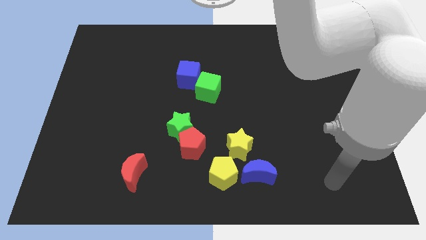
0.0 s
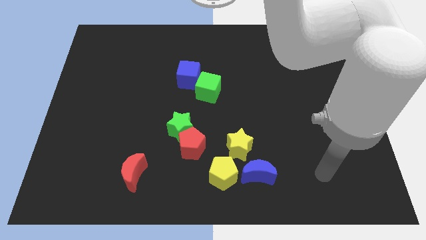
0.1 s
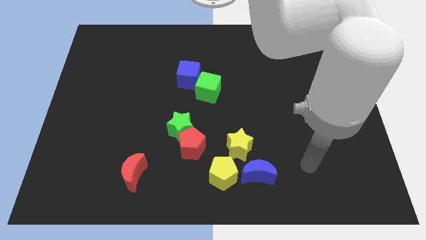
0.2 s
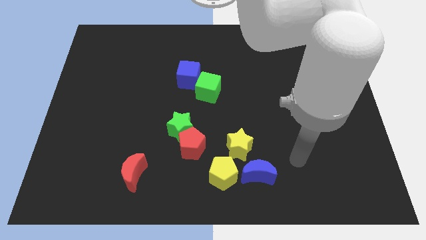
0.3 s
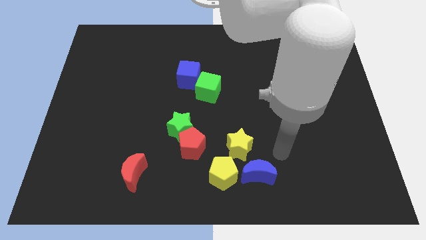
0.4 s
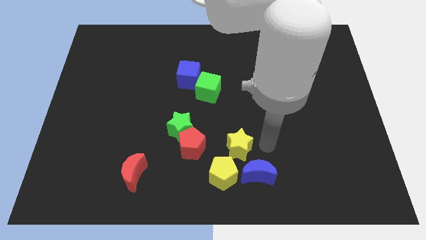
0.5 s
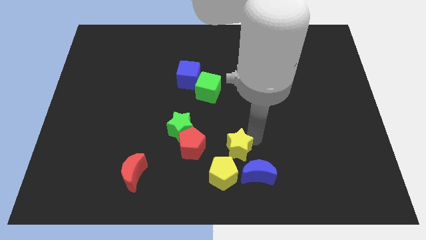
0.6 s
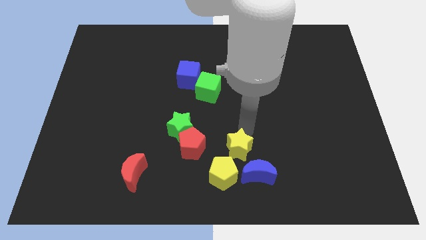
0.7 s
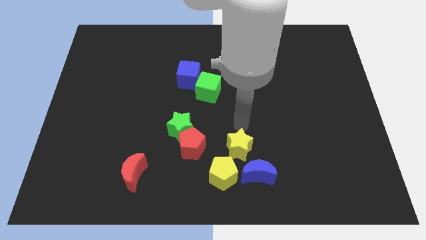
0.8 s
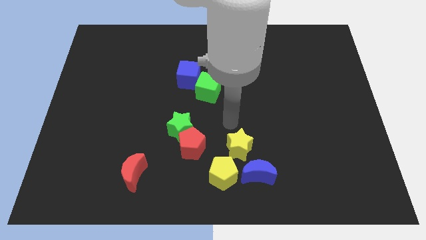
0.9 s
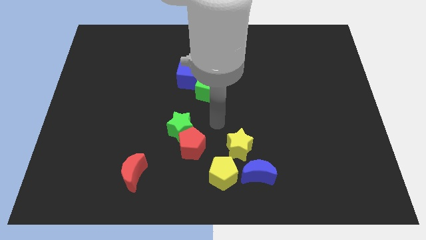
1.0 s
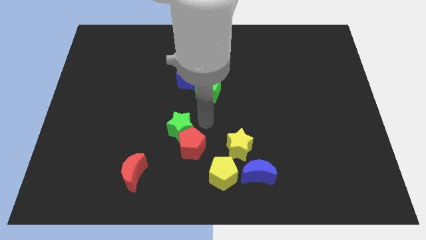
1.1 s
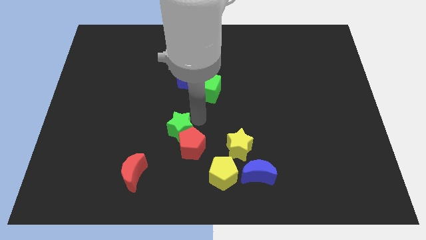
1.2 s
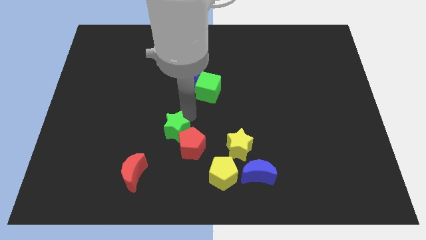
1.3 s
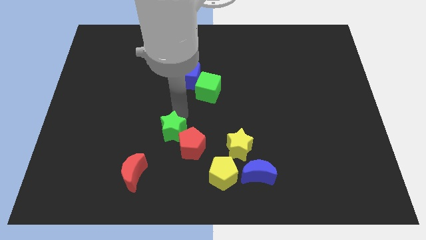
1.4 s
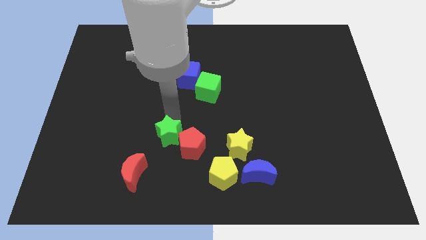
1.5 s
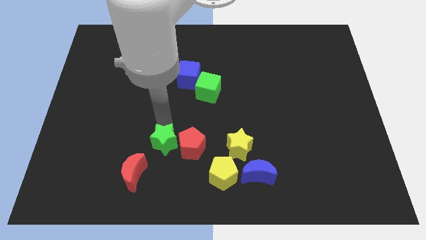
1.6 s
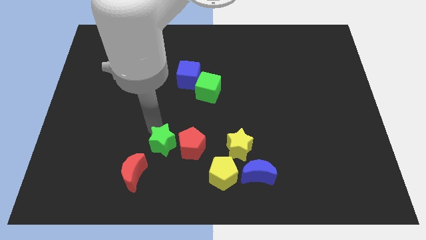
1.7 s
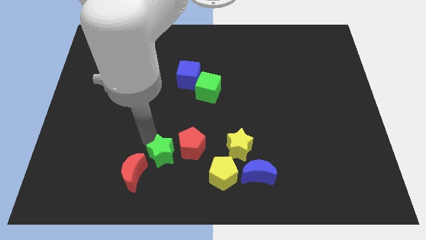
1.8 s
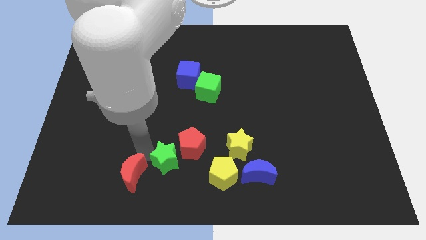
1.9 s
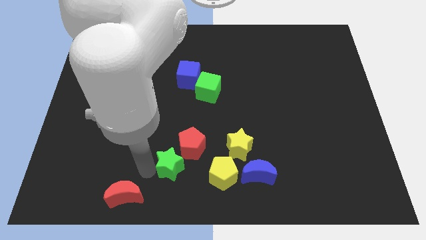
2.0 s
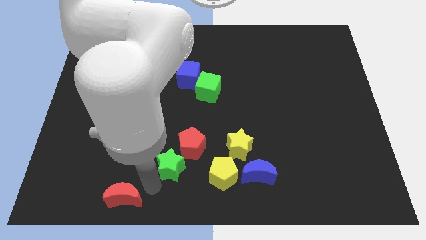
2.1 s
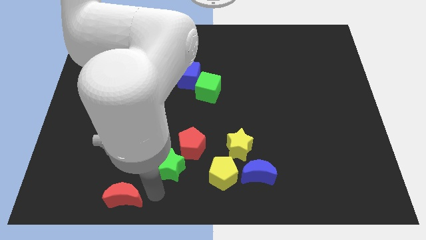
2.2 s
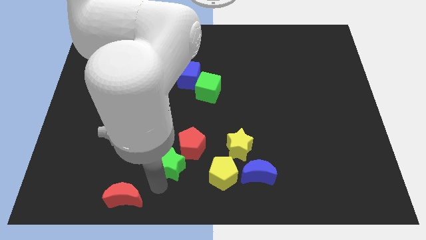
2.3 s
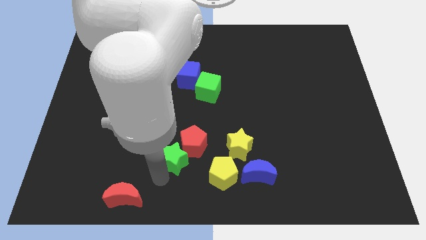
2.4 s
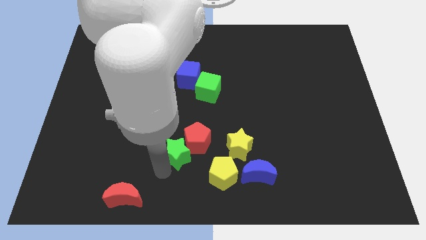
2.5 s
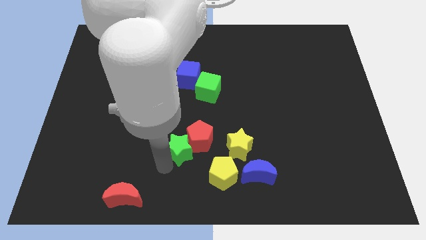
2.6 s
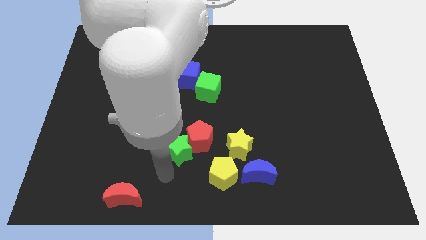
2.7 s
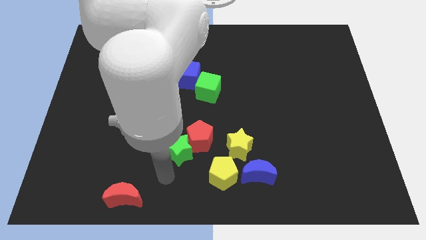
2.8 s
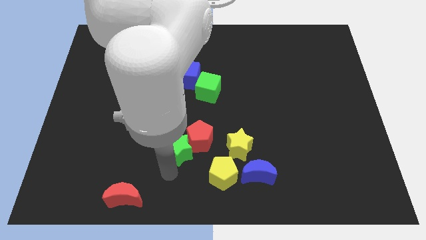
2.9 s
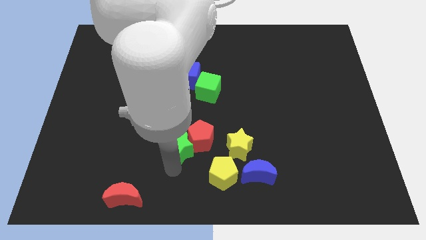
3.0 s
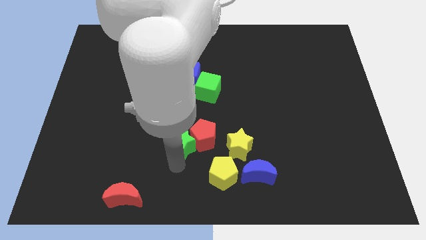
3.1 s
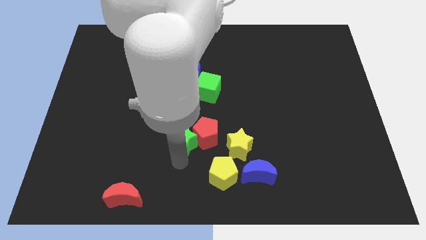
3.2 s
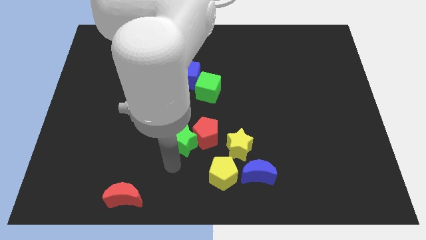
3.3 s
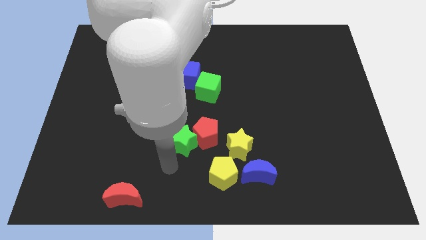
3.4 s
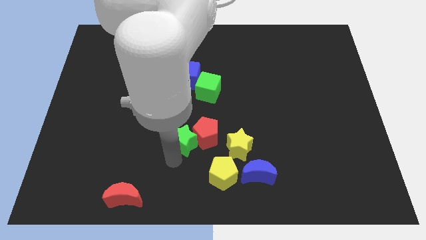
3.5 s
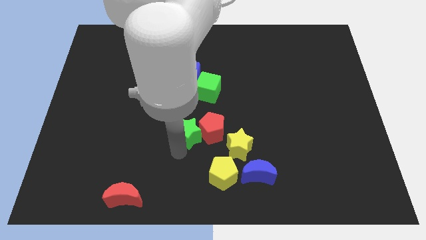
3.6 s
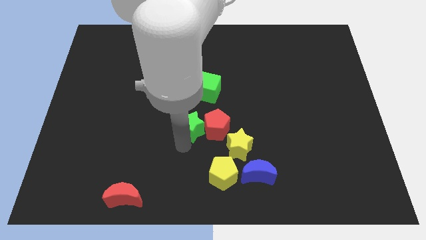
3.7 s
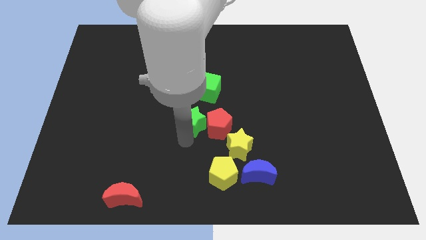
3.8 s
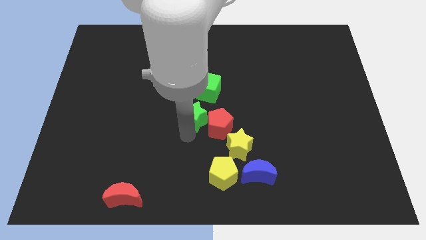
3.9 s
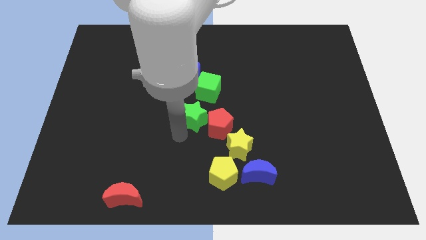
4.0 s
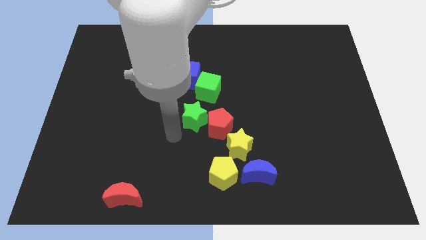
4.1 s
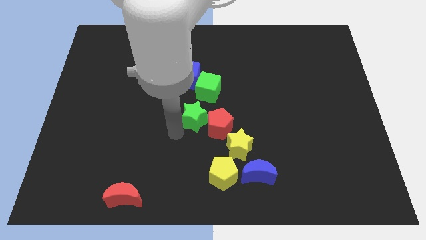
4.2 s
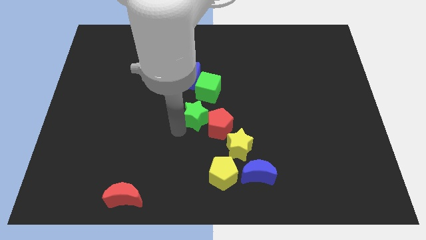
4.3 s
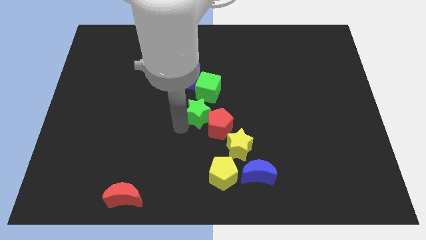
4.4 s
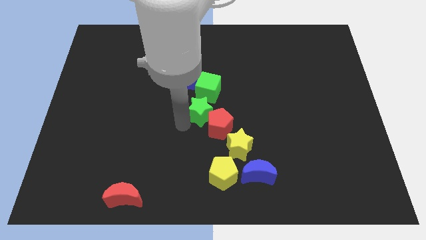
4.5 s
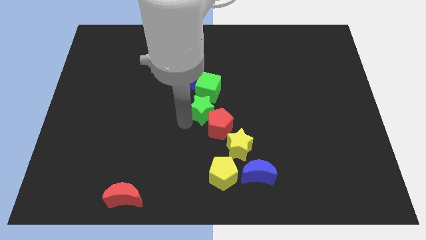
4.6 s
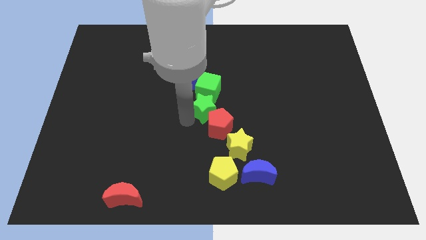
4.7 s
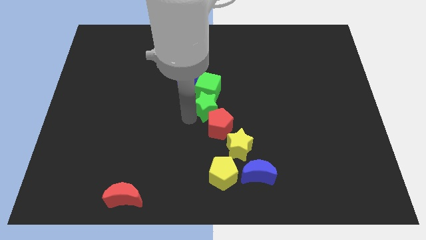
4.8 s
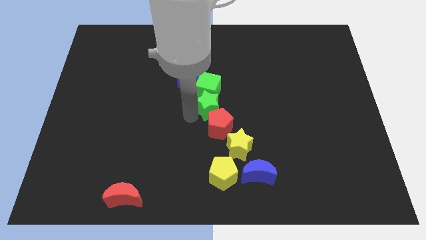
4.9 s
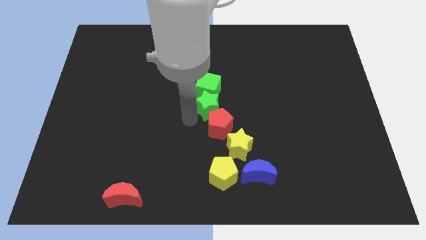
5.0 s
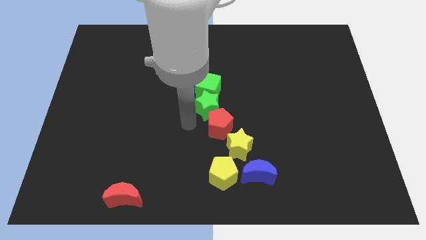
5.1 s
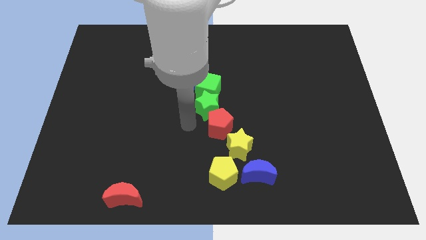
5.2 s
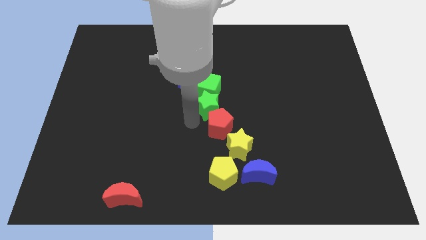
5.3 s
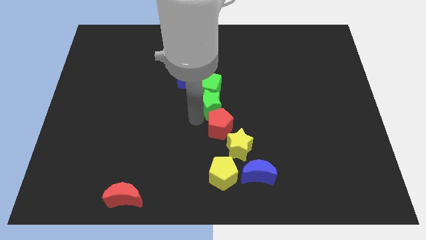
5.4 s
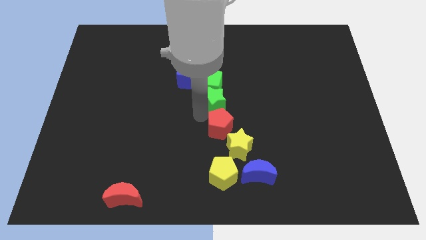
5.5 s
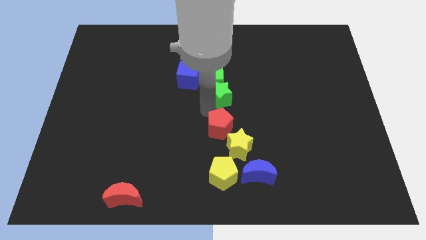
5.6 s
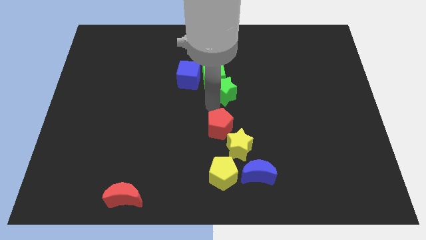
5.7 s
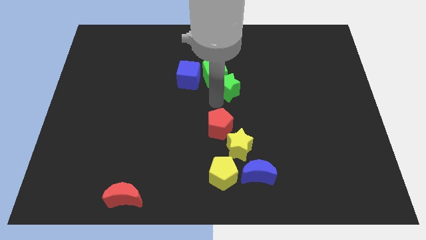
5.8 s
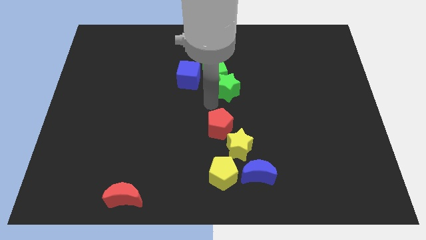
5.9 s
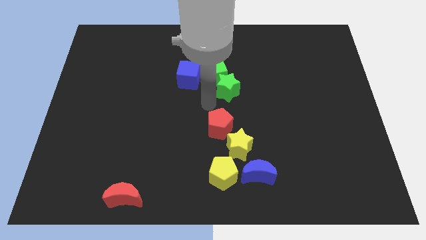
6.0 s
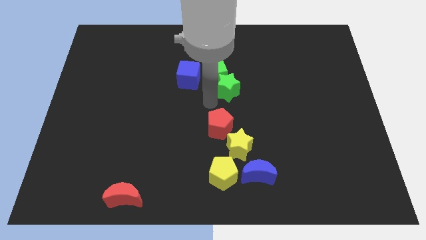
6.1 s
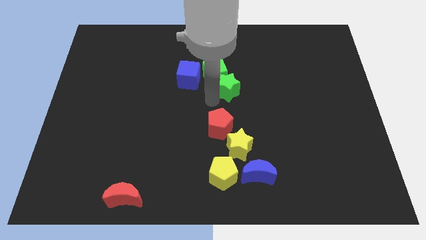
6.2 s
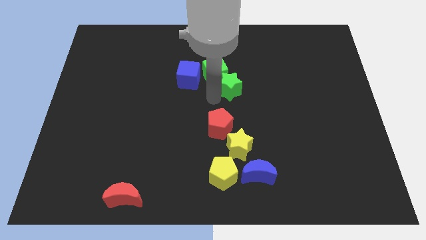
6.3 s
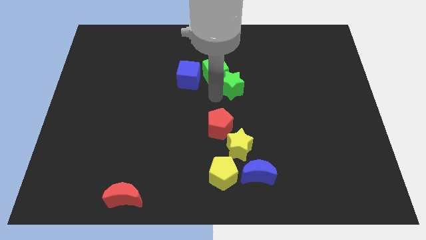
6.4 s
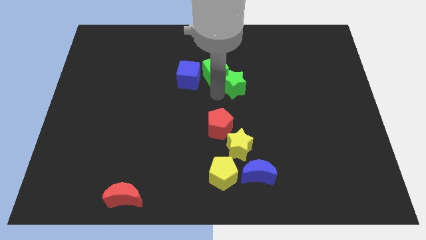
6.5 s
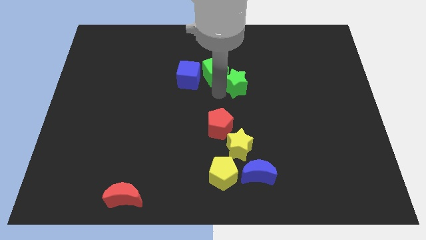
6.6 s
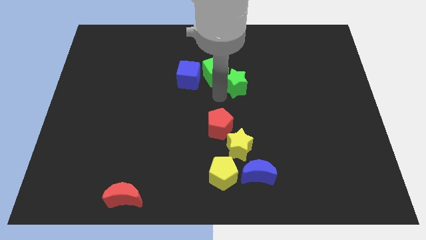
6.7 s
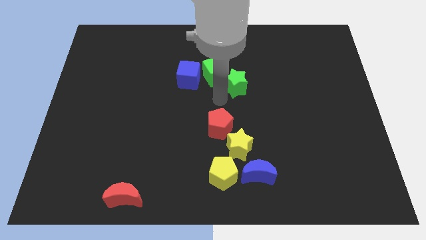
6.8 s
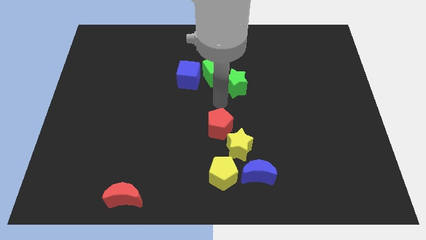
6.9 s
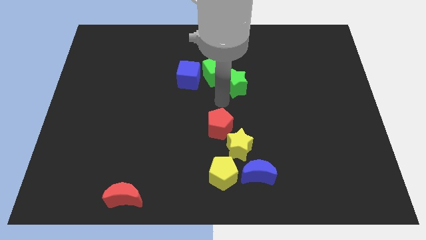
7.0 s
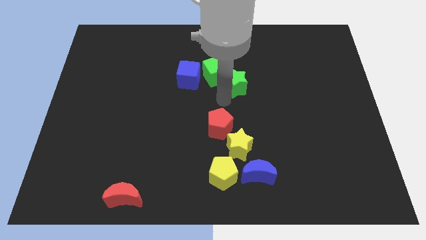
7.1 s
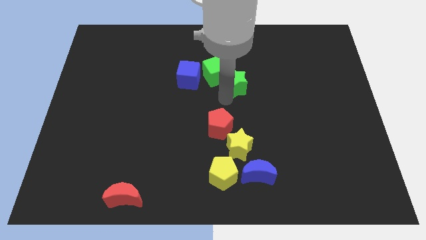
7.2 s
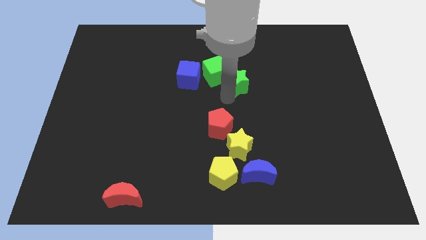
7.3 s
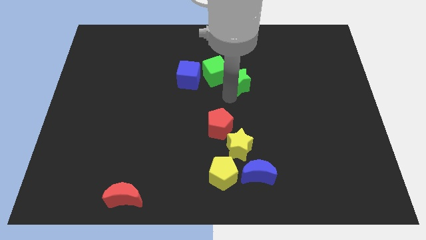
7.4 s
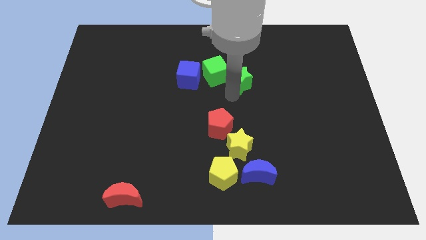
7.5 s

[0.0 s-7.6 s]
push the green star diagonally up and right

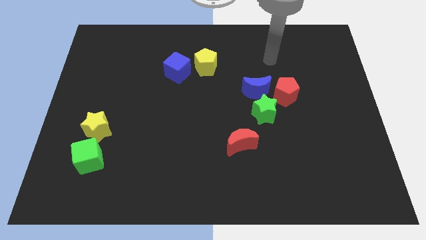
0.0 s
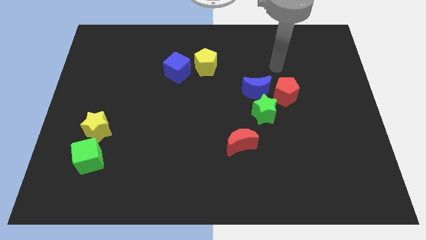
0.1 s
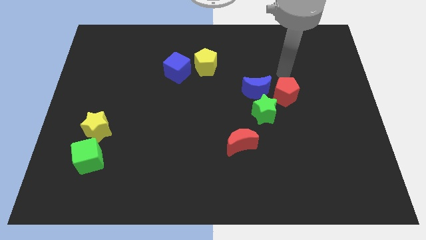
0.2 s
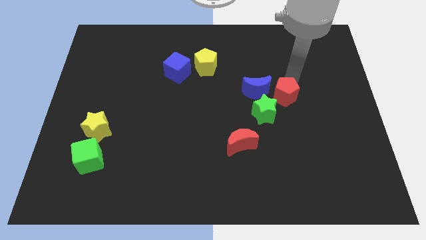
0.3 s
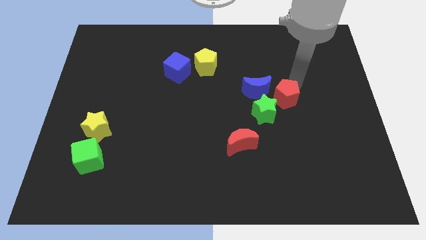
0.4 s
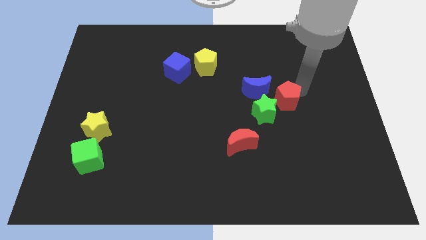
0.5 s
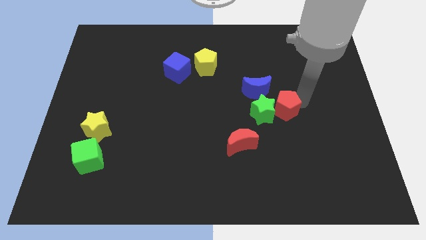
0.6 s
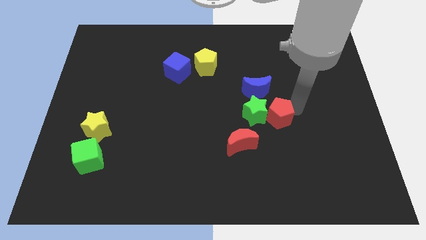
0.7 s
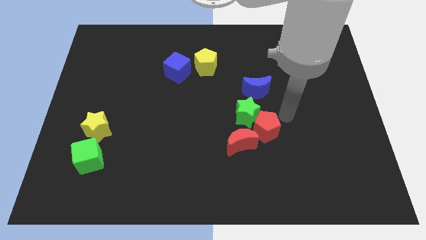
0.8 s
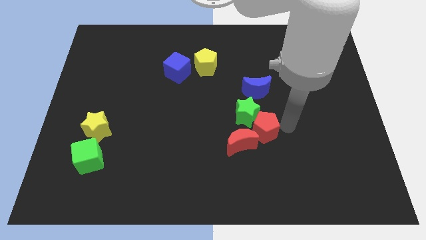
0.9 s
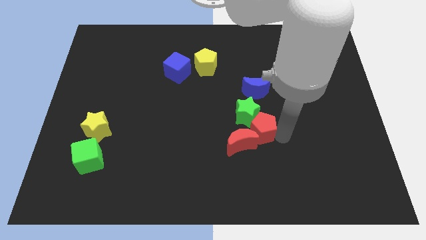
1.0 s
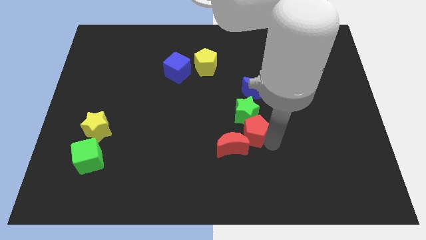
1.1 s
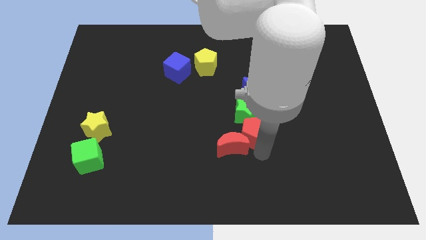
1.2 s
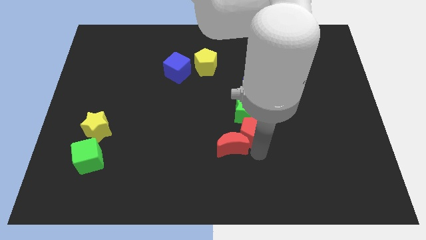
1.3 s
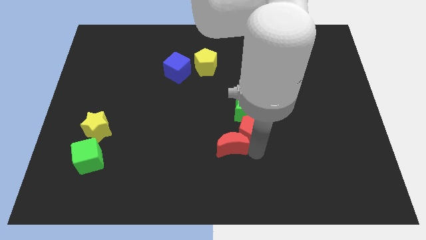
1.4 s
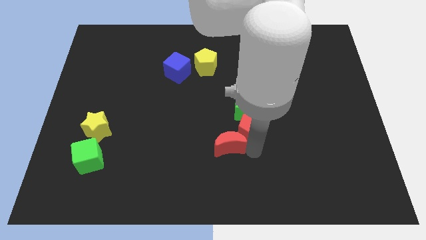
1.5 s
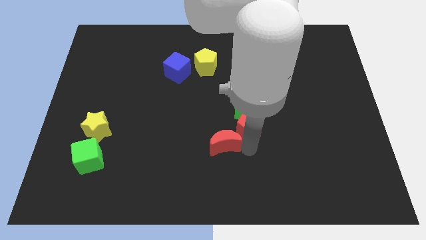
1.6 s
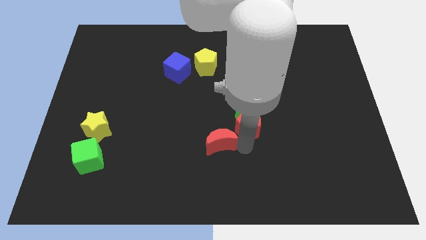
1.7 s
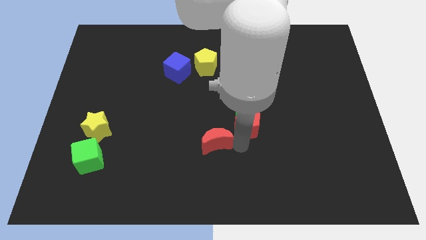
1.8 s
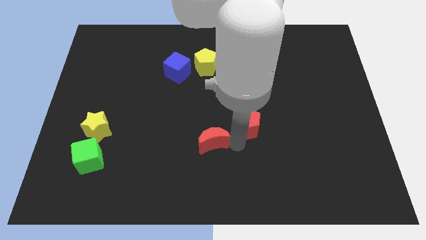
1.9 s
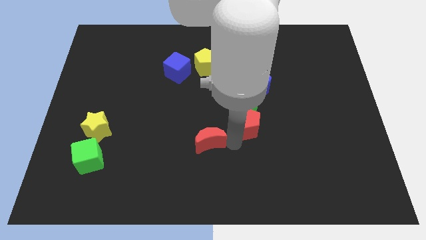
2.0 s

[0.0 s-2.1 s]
slightly slide the red moon left
